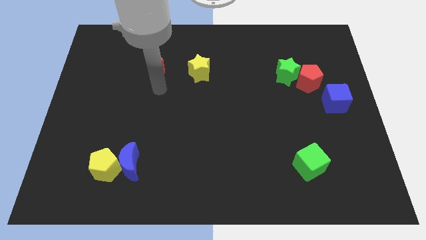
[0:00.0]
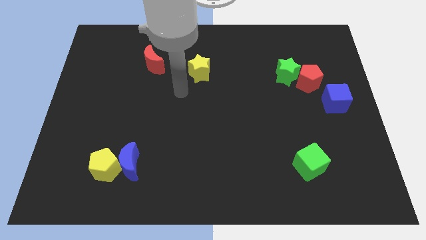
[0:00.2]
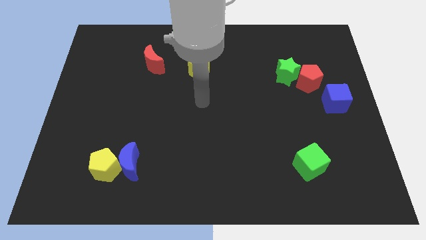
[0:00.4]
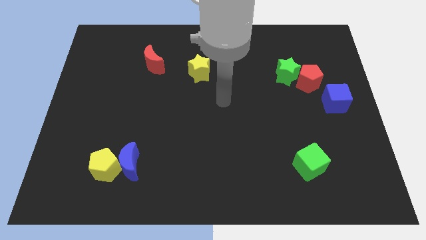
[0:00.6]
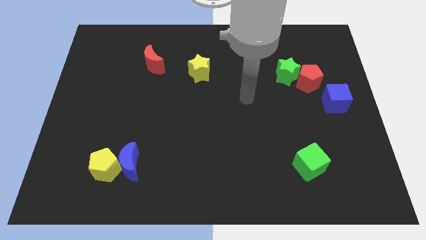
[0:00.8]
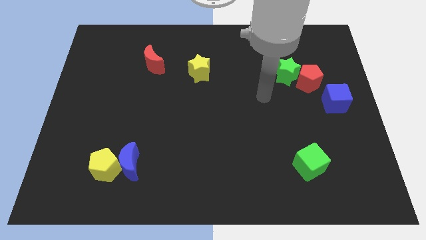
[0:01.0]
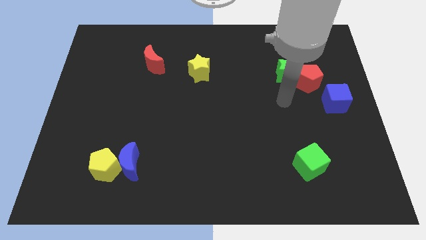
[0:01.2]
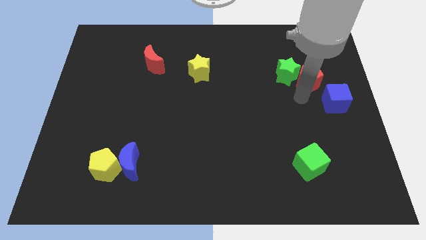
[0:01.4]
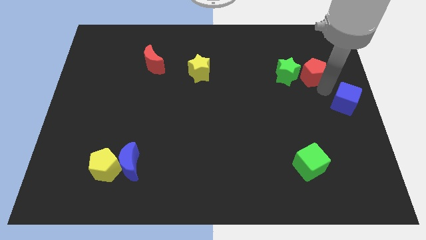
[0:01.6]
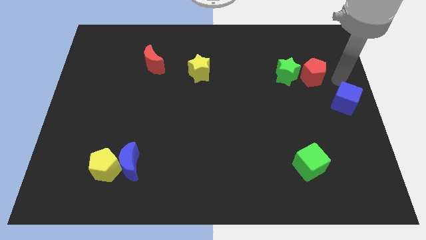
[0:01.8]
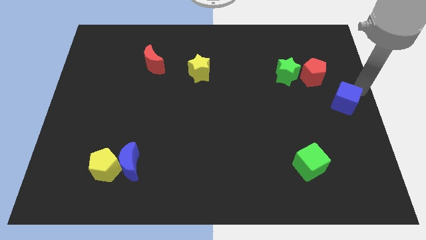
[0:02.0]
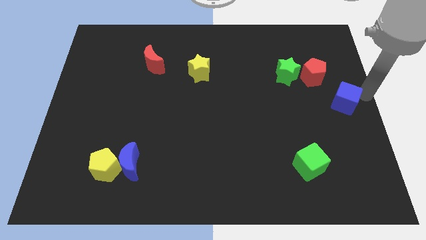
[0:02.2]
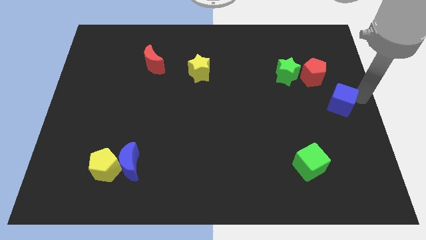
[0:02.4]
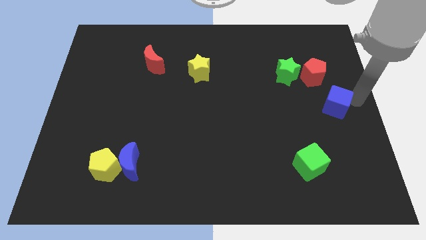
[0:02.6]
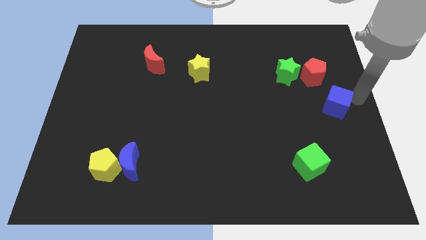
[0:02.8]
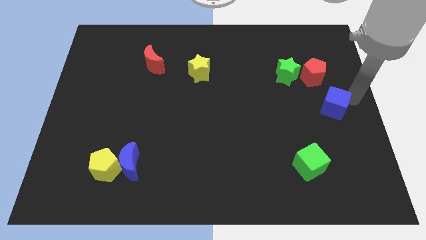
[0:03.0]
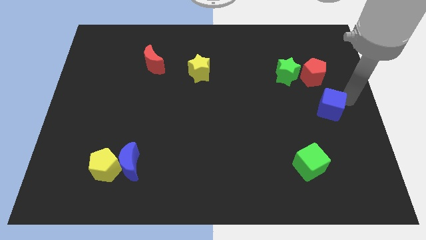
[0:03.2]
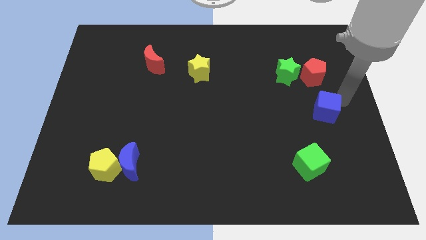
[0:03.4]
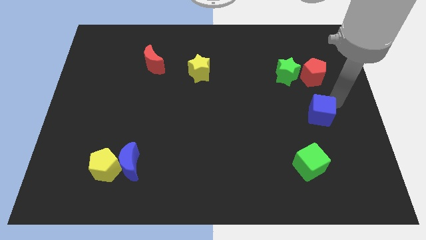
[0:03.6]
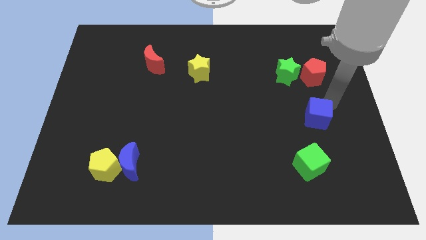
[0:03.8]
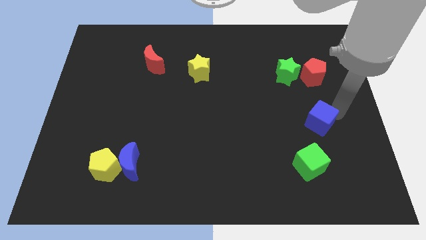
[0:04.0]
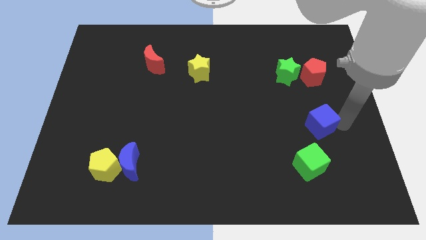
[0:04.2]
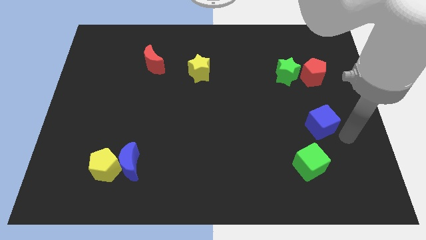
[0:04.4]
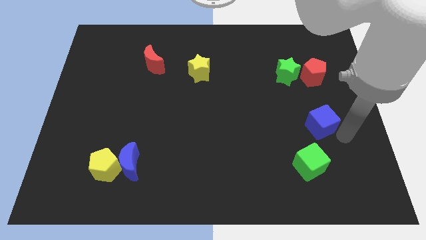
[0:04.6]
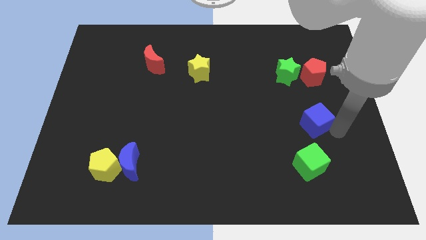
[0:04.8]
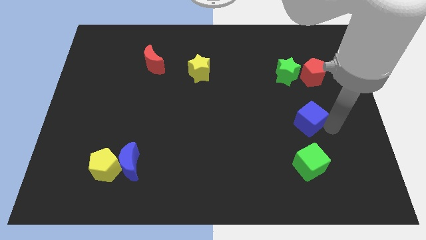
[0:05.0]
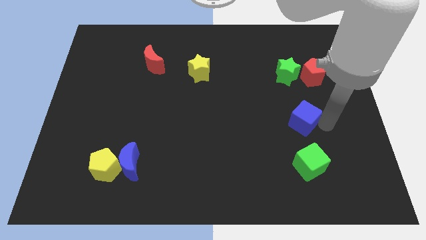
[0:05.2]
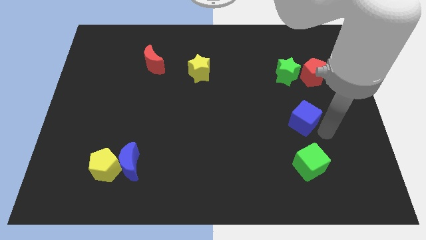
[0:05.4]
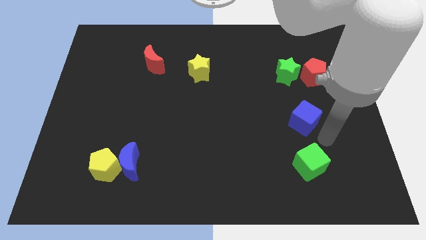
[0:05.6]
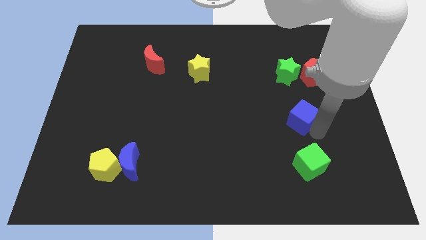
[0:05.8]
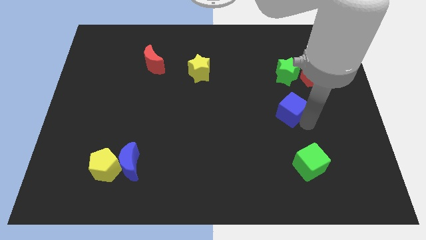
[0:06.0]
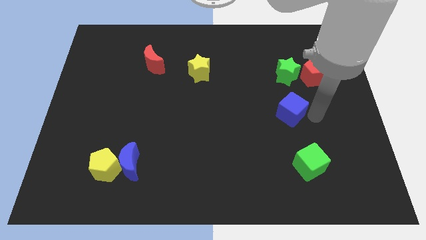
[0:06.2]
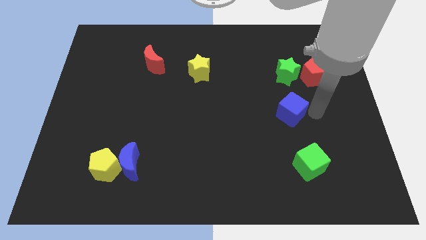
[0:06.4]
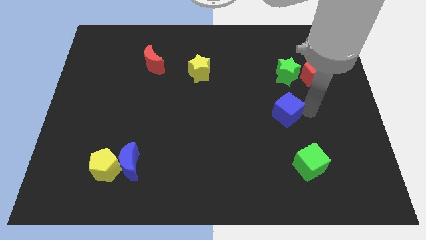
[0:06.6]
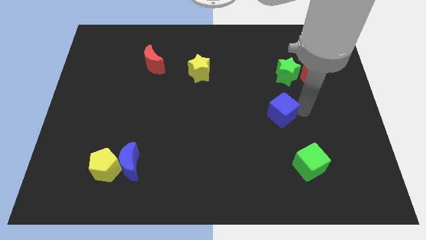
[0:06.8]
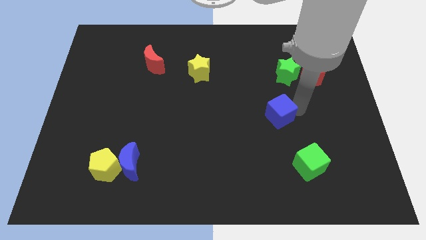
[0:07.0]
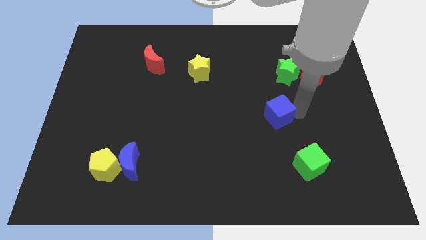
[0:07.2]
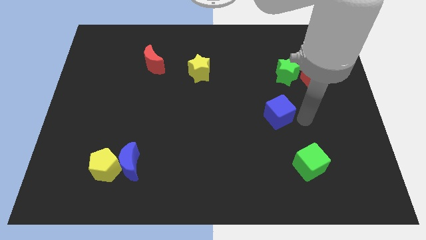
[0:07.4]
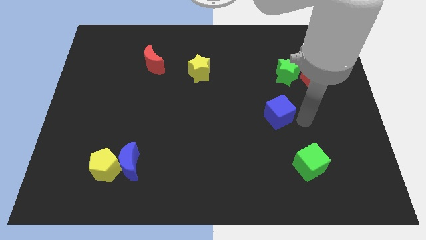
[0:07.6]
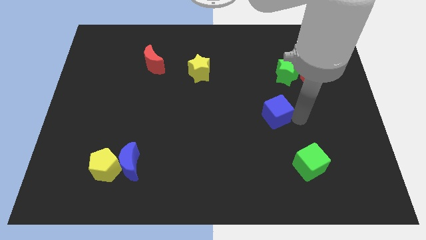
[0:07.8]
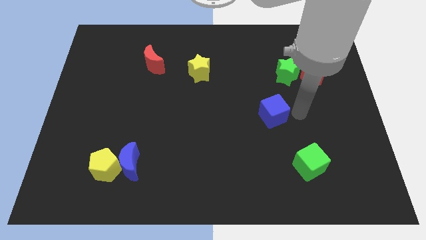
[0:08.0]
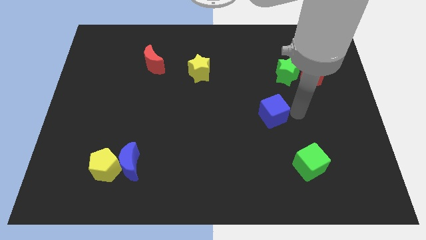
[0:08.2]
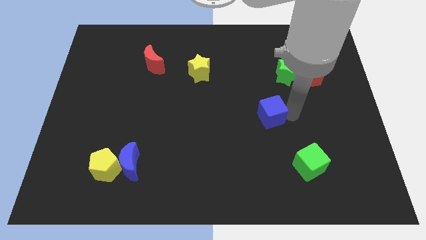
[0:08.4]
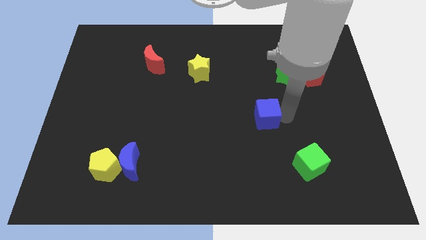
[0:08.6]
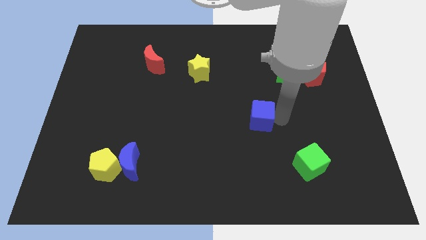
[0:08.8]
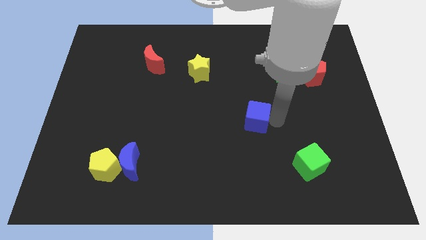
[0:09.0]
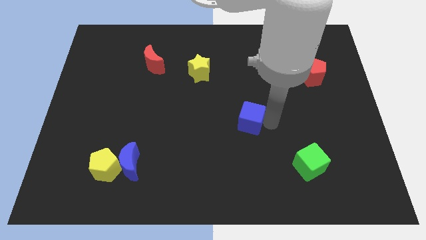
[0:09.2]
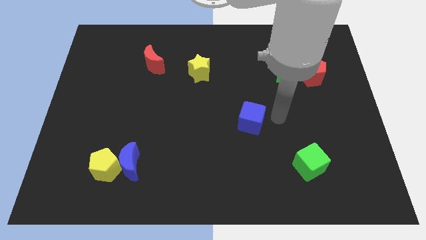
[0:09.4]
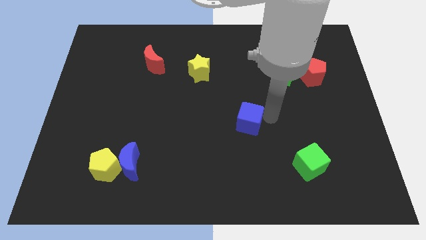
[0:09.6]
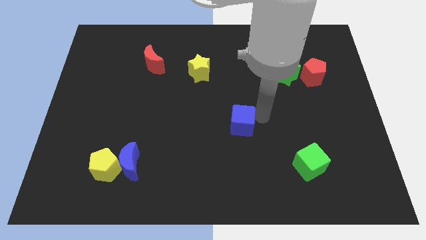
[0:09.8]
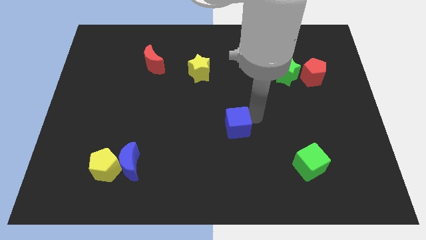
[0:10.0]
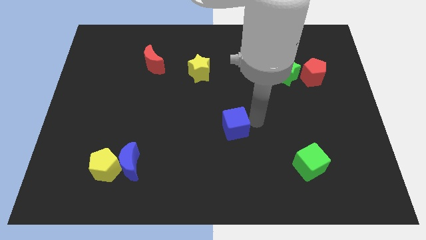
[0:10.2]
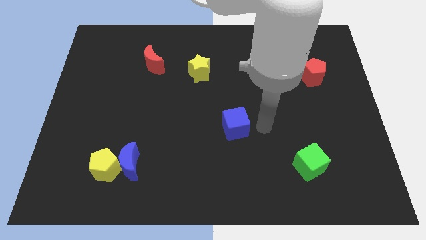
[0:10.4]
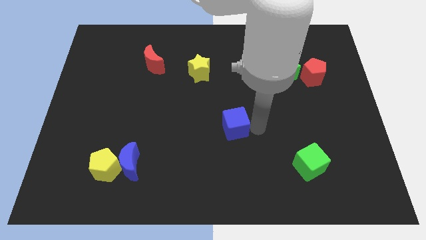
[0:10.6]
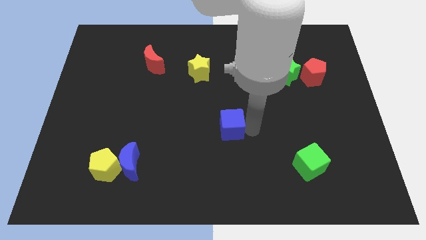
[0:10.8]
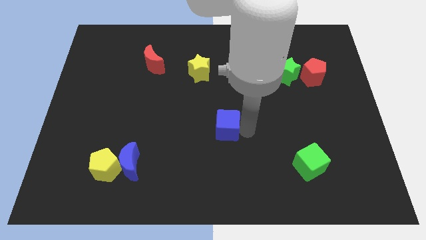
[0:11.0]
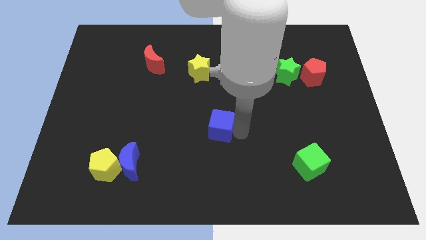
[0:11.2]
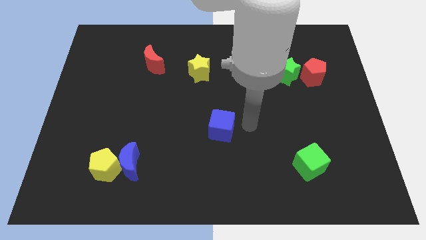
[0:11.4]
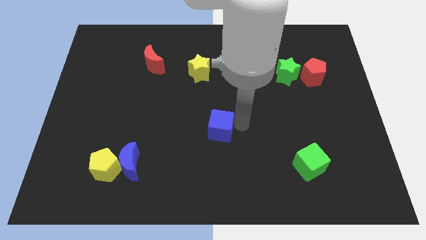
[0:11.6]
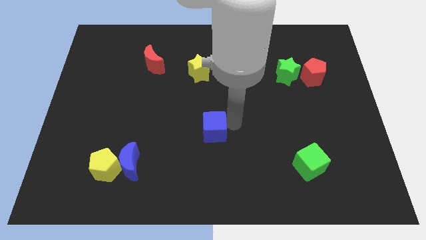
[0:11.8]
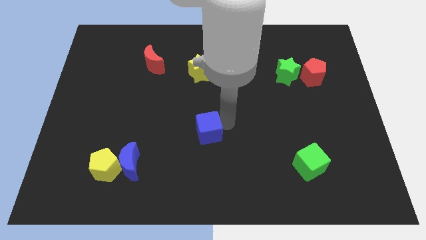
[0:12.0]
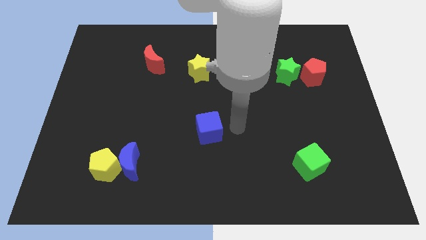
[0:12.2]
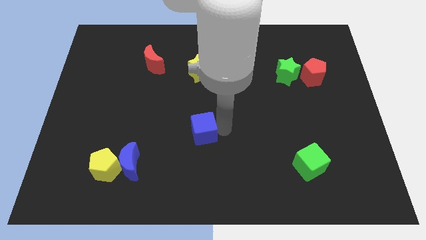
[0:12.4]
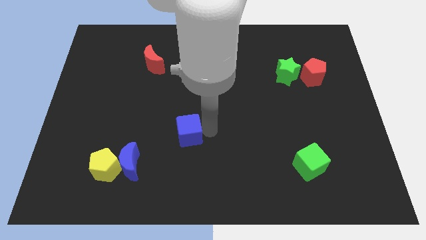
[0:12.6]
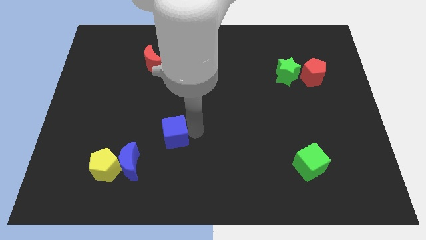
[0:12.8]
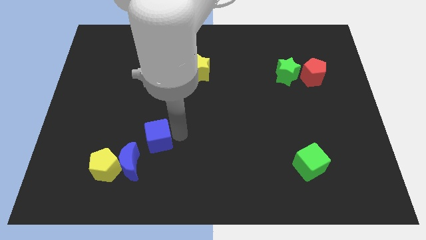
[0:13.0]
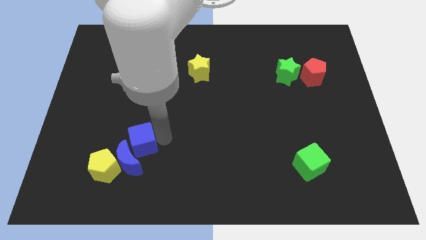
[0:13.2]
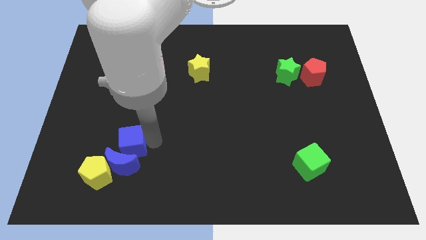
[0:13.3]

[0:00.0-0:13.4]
put the blue cube diagonally up and to the left of the blue moon
